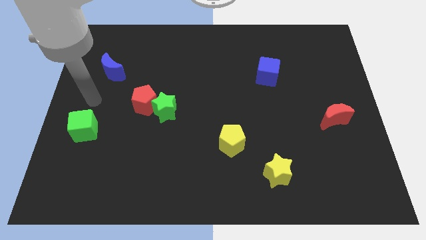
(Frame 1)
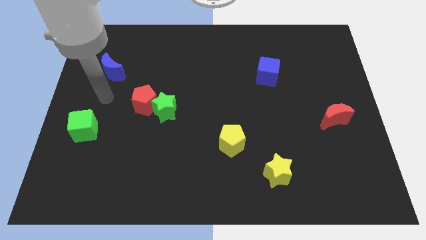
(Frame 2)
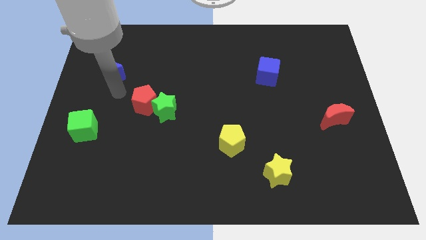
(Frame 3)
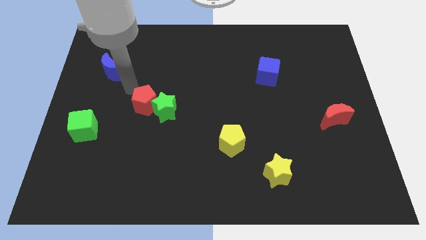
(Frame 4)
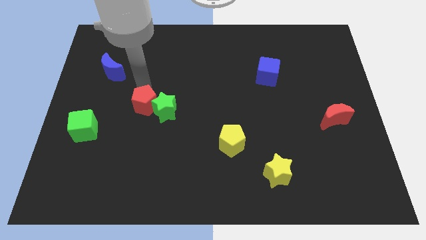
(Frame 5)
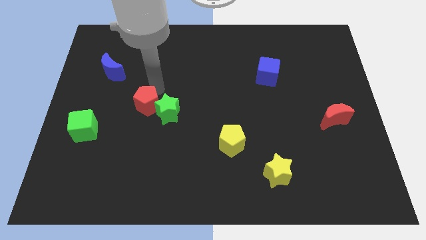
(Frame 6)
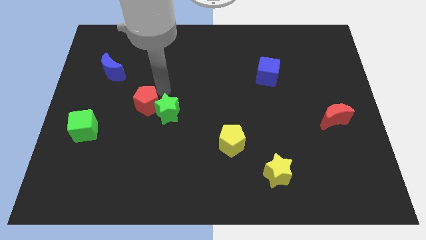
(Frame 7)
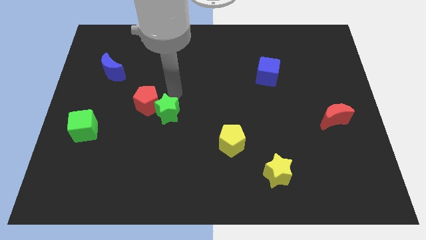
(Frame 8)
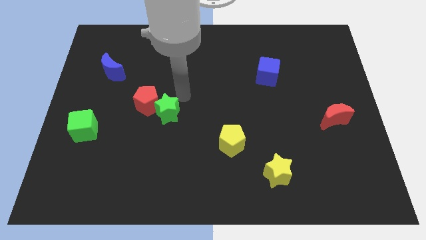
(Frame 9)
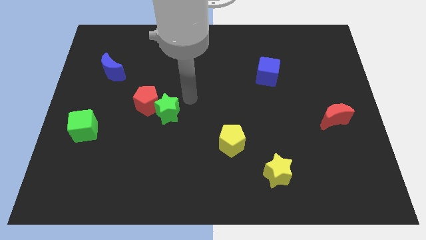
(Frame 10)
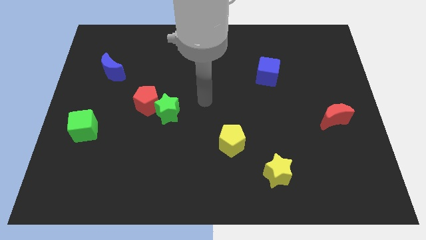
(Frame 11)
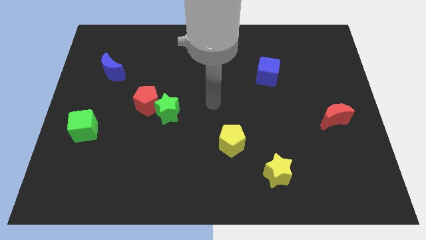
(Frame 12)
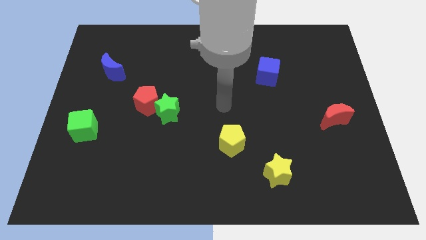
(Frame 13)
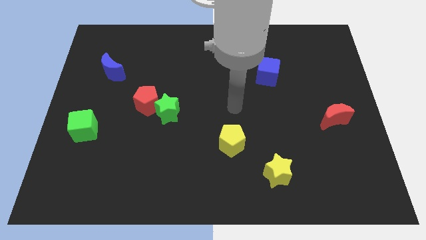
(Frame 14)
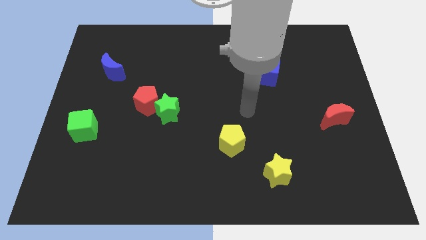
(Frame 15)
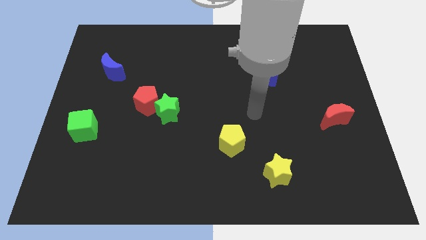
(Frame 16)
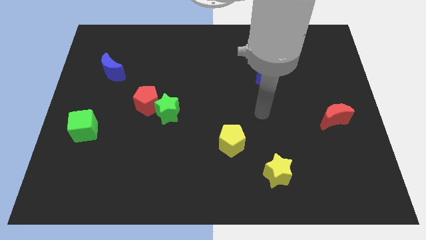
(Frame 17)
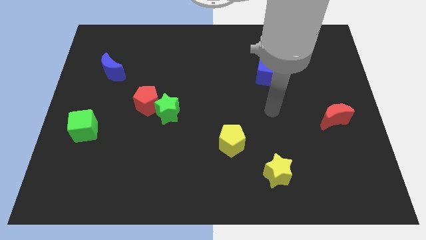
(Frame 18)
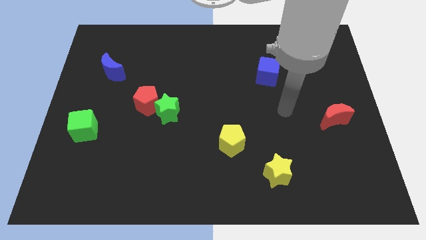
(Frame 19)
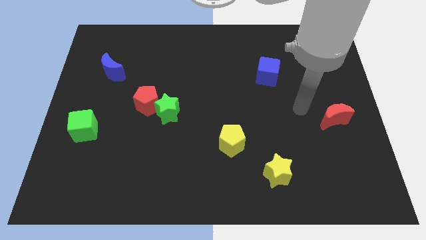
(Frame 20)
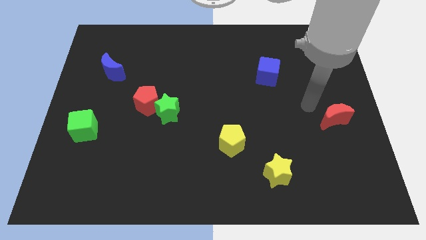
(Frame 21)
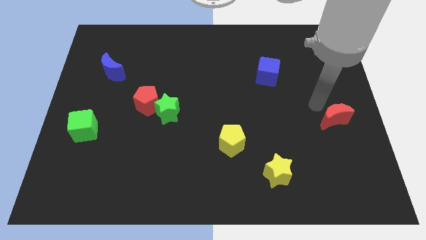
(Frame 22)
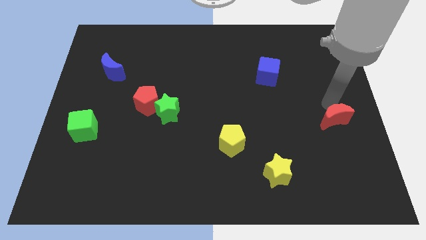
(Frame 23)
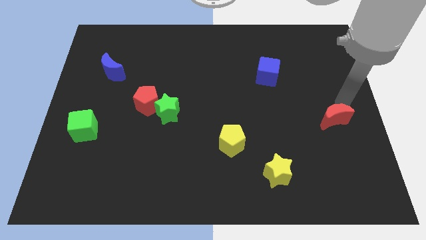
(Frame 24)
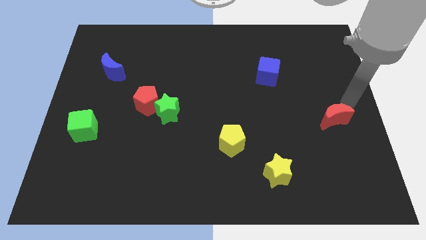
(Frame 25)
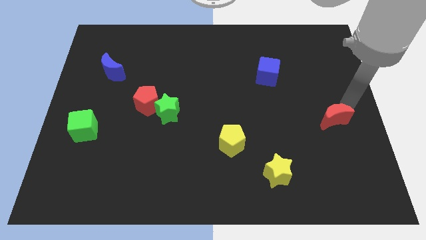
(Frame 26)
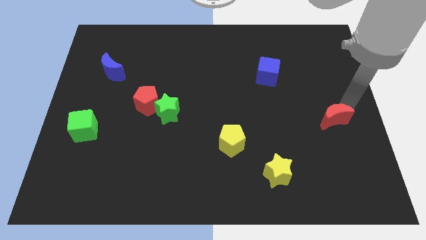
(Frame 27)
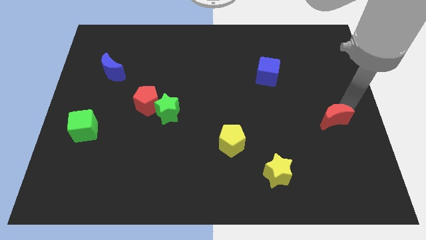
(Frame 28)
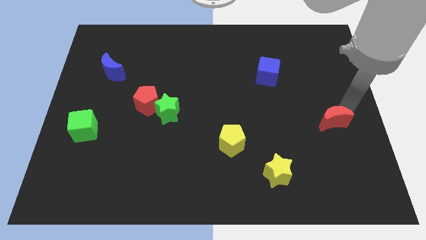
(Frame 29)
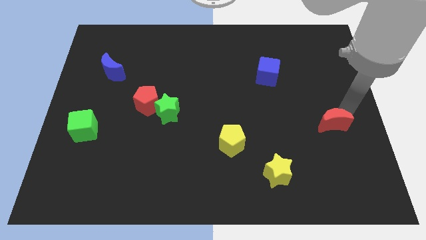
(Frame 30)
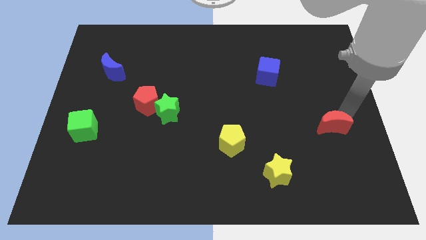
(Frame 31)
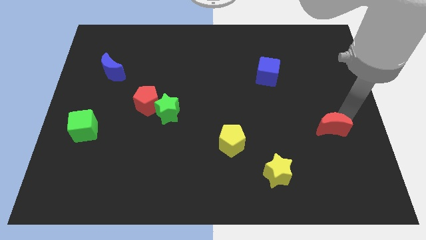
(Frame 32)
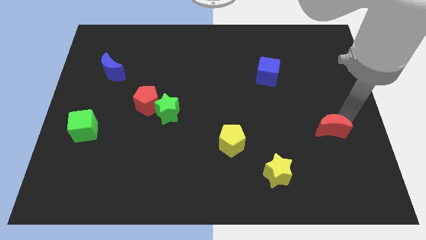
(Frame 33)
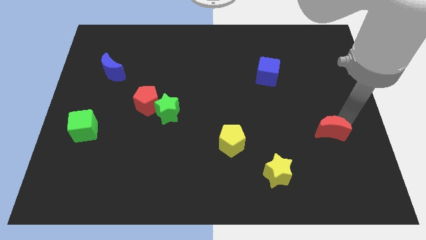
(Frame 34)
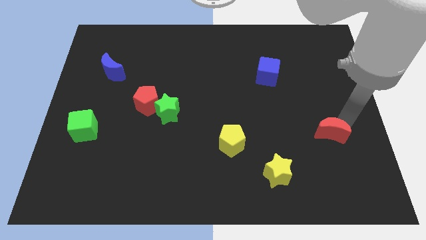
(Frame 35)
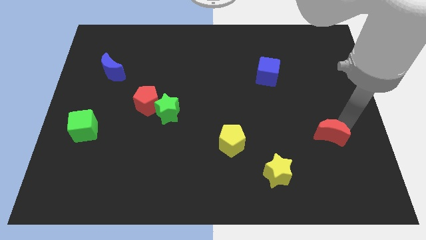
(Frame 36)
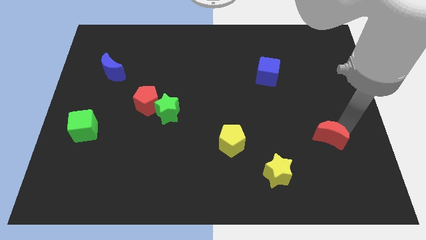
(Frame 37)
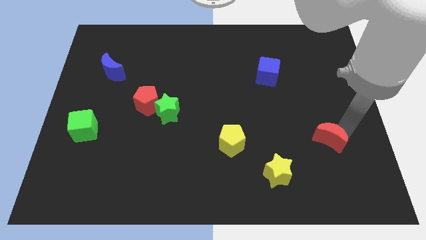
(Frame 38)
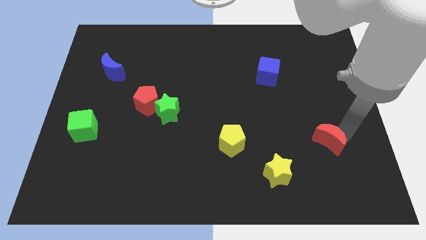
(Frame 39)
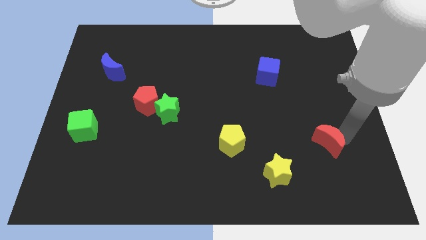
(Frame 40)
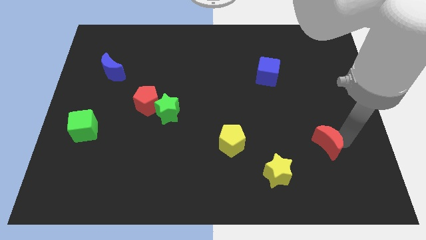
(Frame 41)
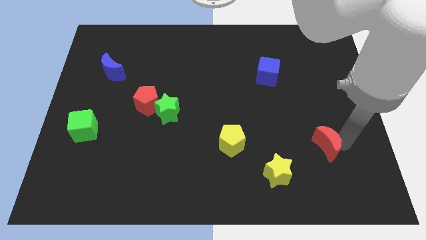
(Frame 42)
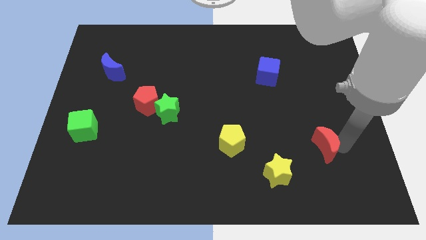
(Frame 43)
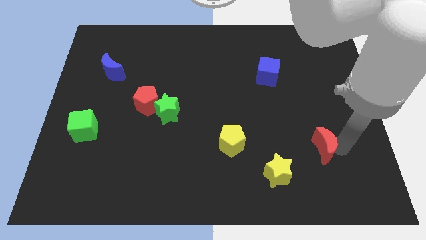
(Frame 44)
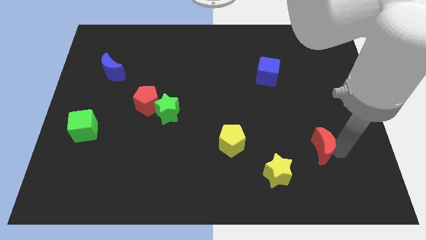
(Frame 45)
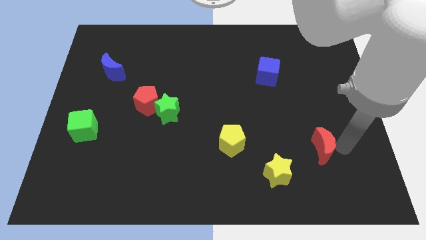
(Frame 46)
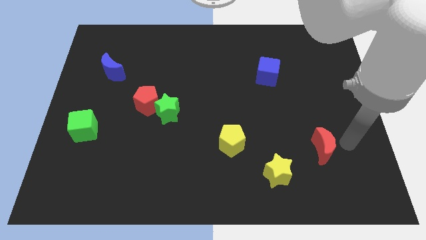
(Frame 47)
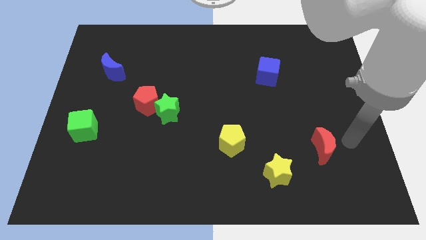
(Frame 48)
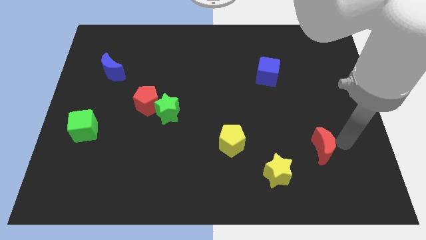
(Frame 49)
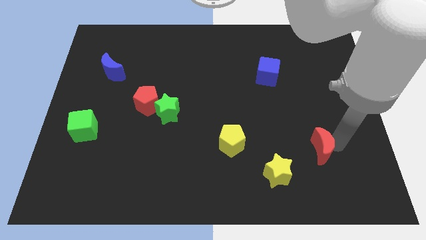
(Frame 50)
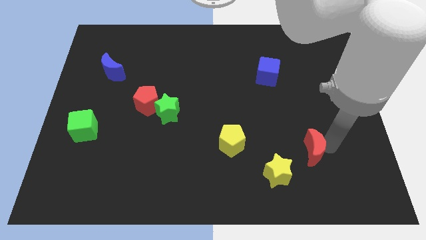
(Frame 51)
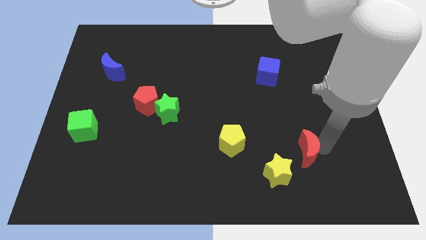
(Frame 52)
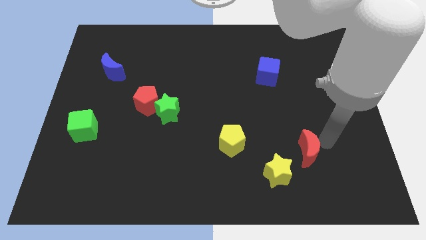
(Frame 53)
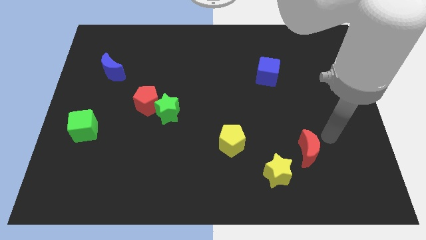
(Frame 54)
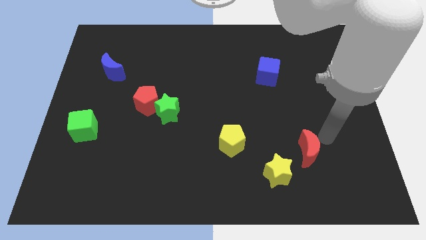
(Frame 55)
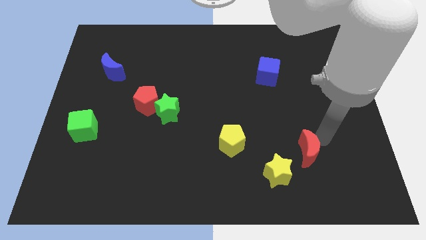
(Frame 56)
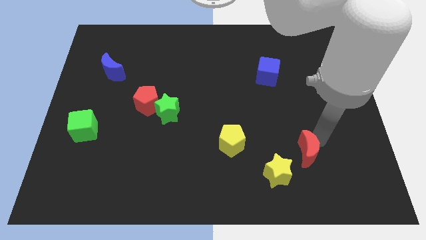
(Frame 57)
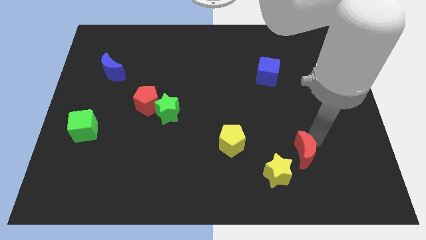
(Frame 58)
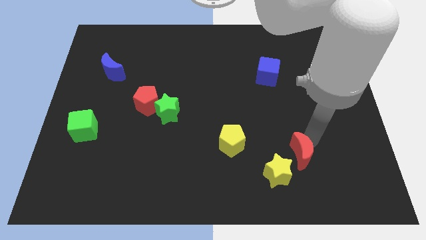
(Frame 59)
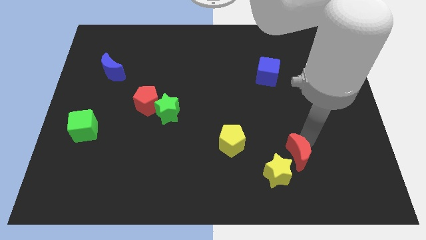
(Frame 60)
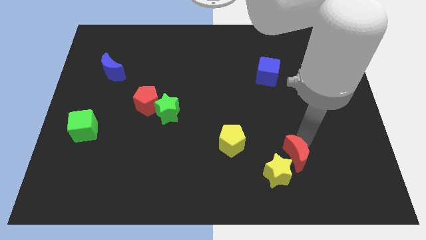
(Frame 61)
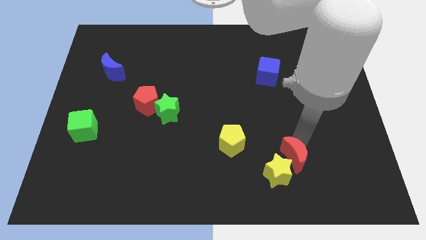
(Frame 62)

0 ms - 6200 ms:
move the red moon towards the yellow star

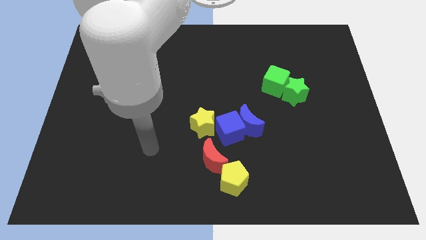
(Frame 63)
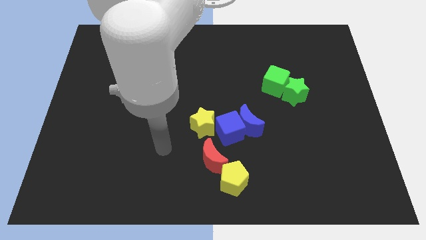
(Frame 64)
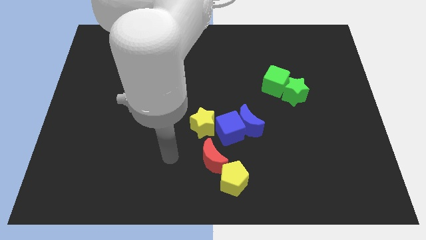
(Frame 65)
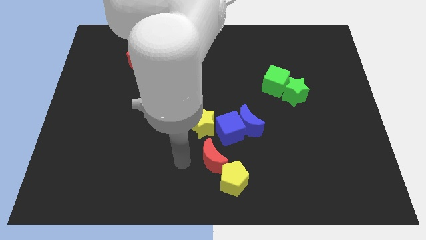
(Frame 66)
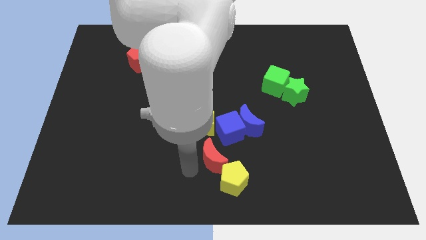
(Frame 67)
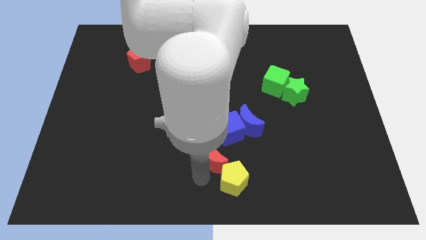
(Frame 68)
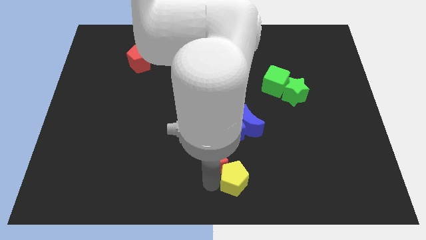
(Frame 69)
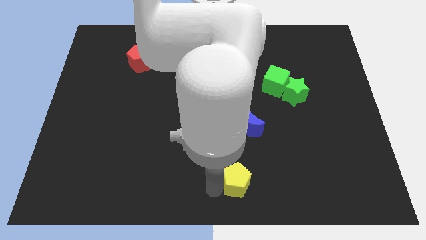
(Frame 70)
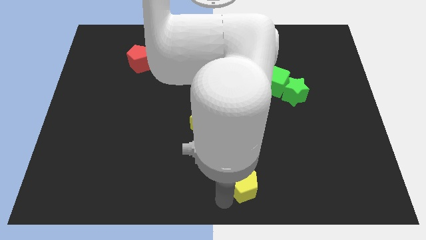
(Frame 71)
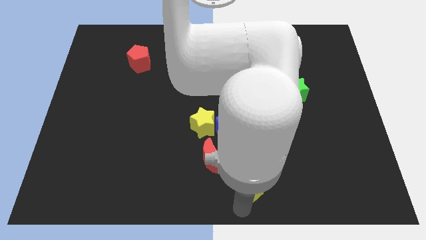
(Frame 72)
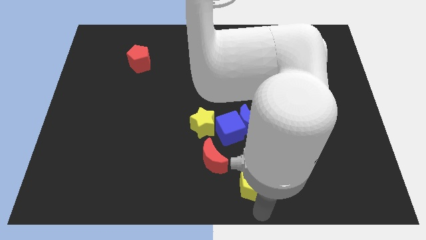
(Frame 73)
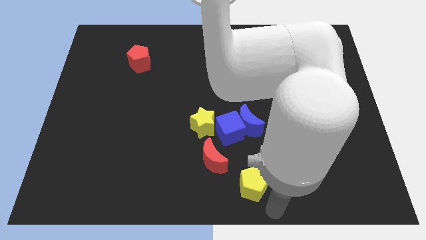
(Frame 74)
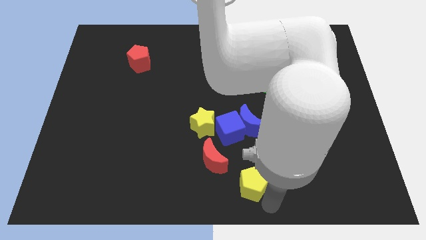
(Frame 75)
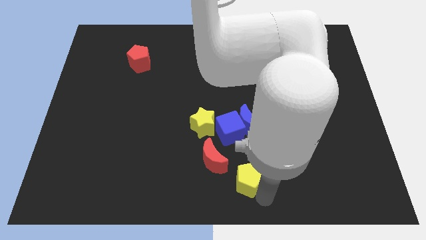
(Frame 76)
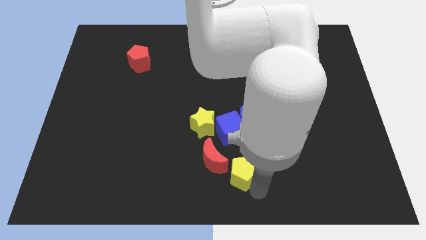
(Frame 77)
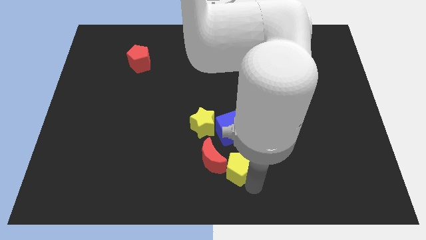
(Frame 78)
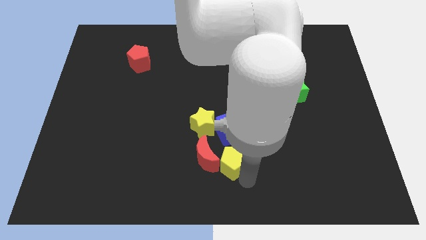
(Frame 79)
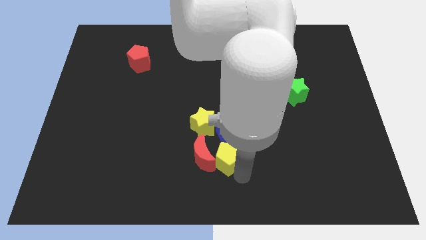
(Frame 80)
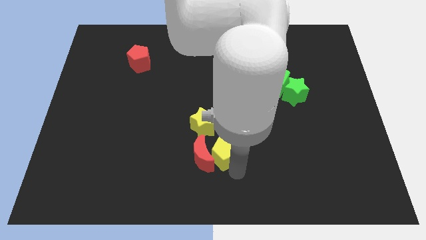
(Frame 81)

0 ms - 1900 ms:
move the yellow pentagon towards the blue cube
